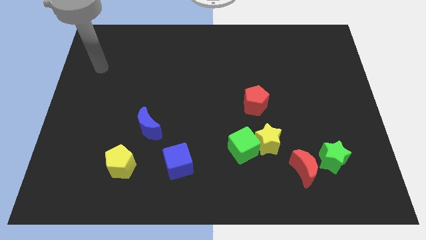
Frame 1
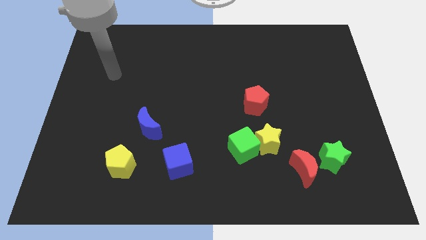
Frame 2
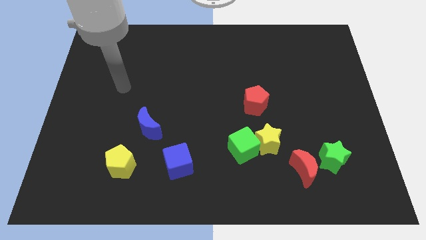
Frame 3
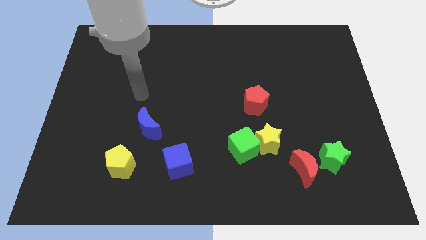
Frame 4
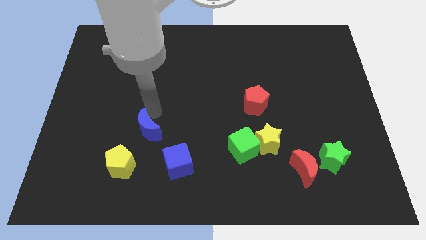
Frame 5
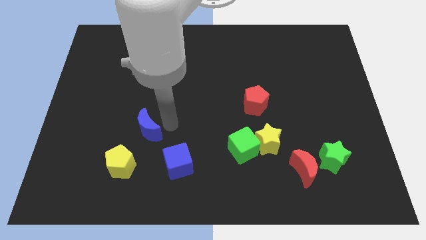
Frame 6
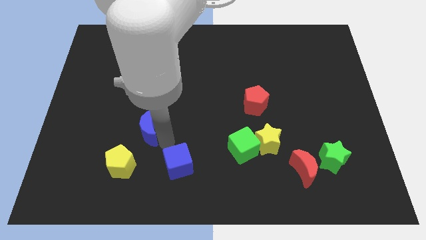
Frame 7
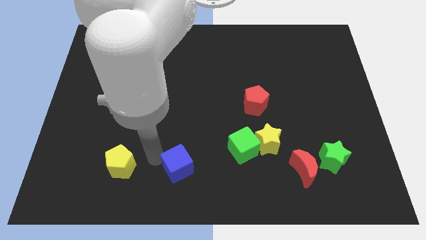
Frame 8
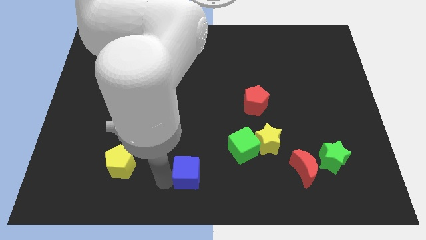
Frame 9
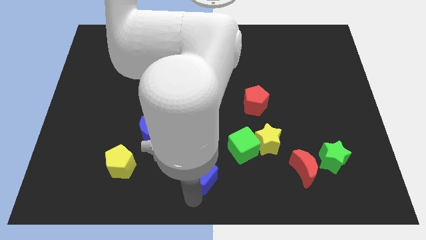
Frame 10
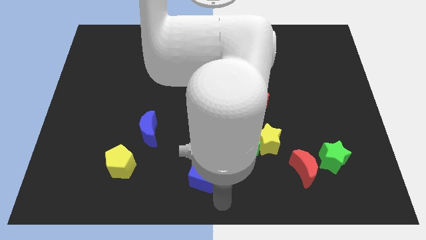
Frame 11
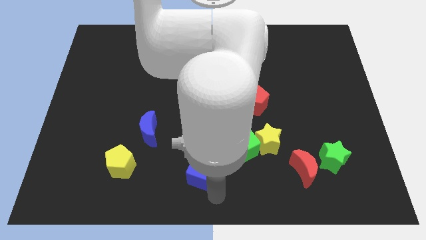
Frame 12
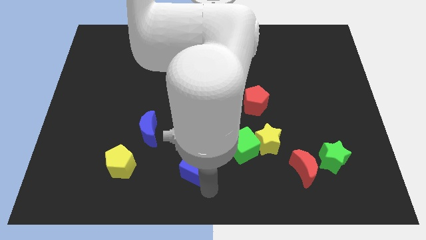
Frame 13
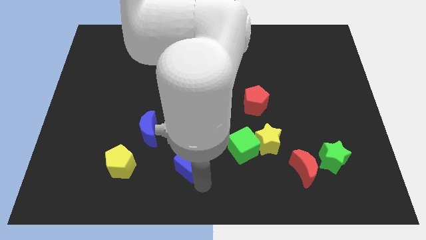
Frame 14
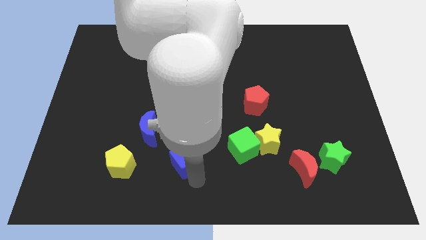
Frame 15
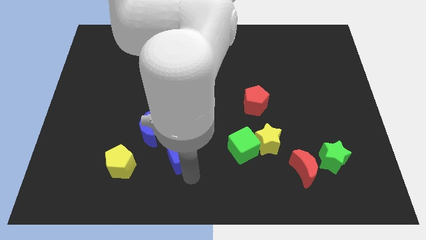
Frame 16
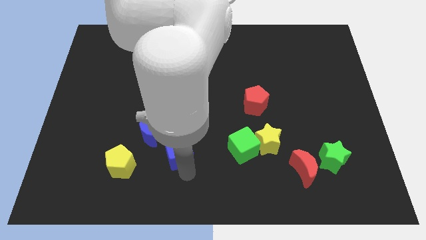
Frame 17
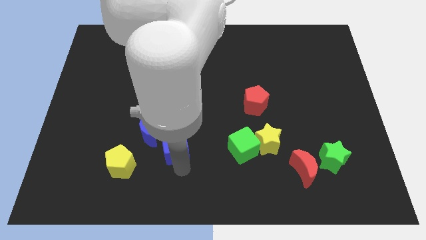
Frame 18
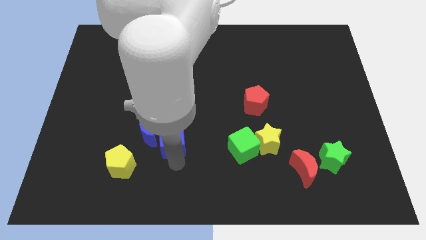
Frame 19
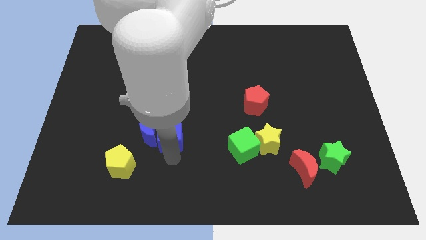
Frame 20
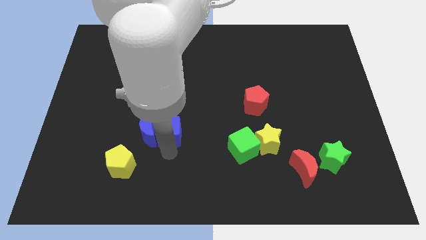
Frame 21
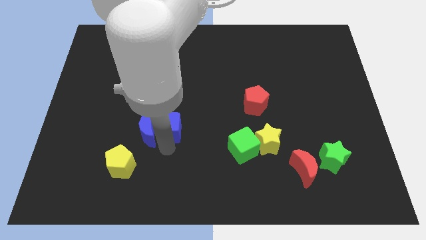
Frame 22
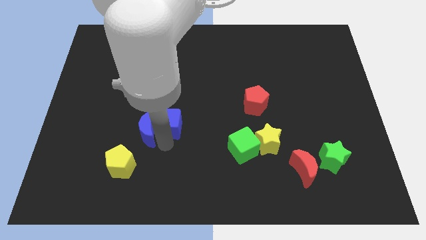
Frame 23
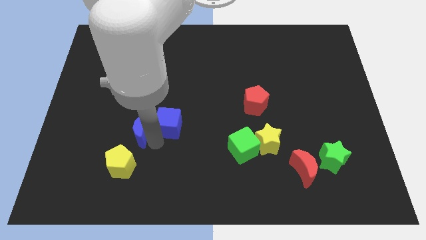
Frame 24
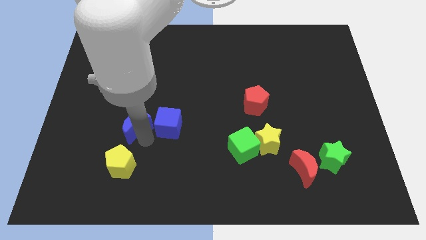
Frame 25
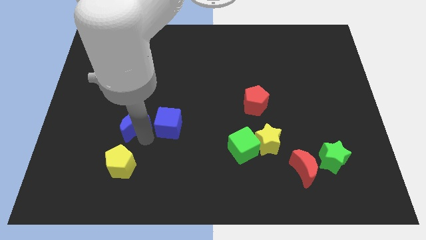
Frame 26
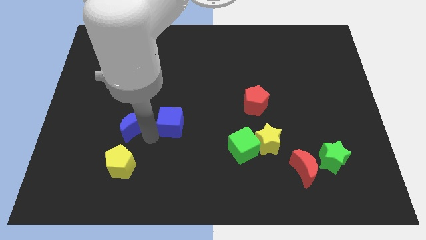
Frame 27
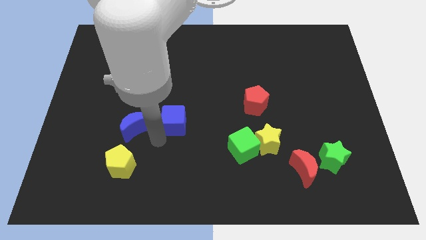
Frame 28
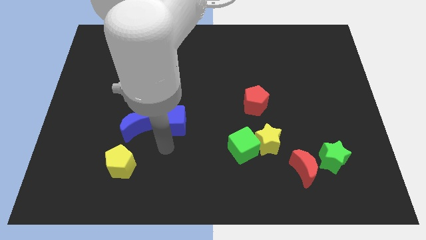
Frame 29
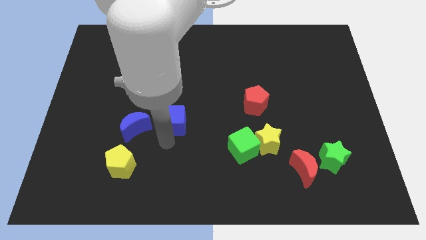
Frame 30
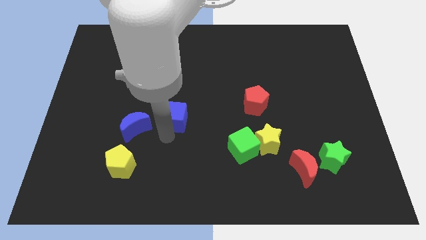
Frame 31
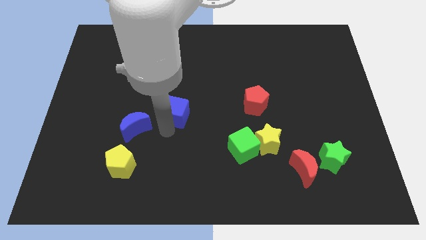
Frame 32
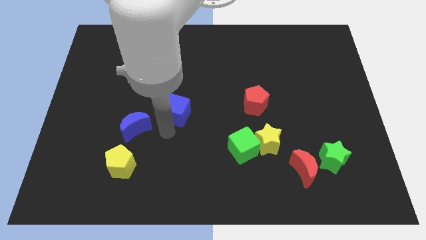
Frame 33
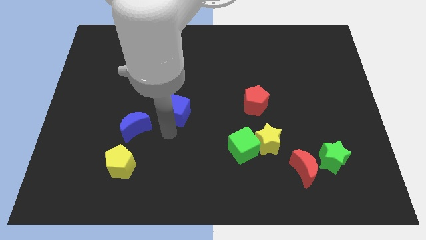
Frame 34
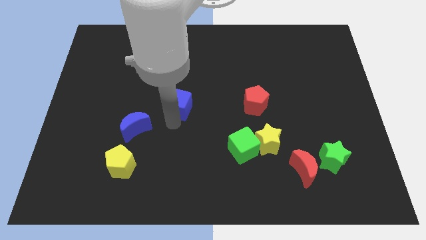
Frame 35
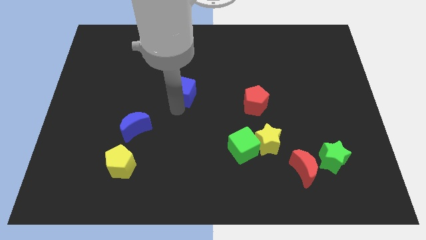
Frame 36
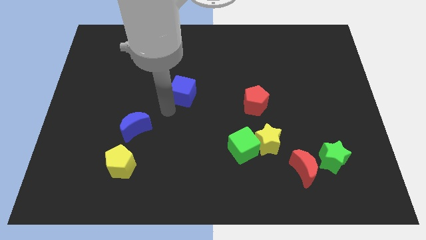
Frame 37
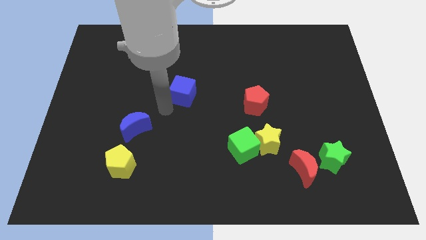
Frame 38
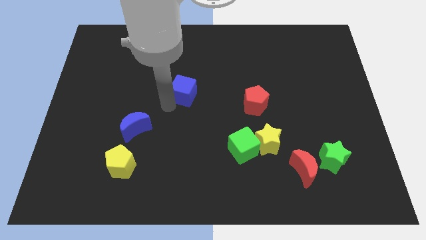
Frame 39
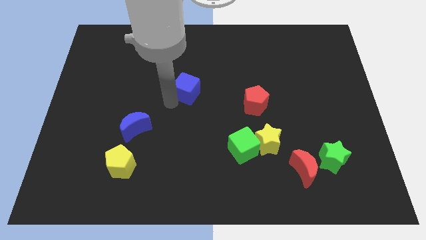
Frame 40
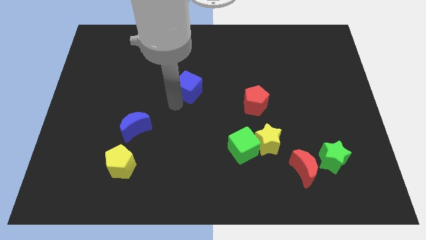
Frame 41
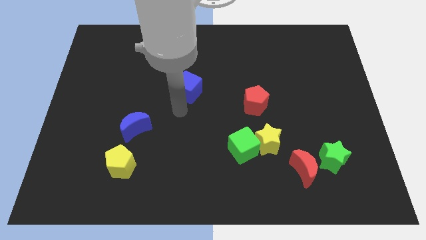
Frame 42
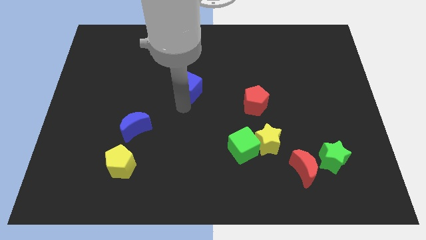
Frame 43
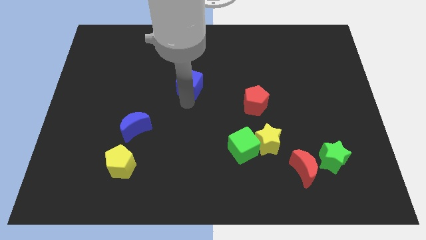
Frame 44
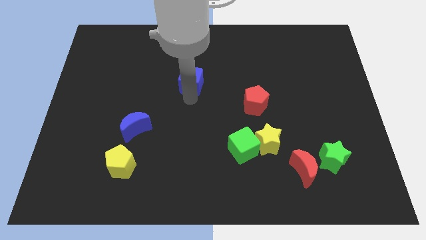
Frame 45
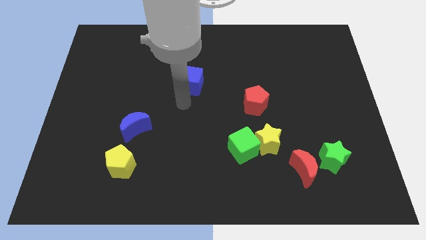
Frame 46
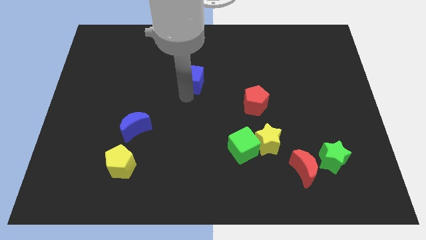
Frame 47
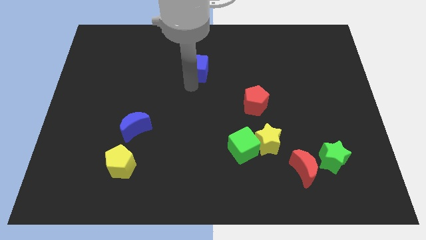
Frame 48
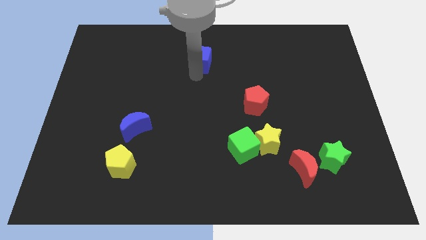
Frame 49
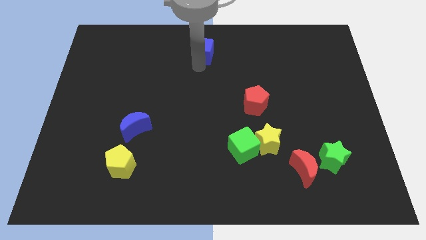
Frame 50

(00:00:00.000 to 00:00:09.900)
push the blue cube to the top

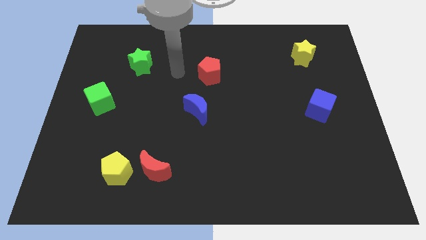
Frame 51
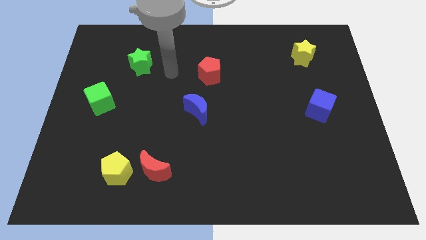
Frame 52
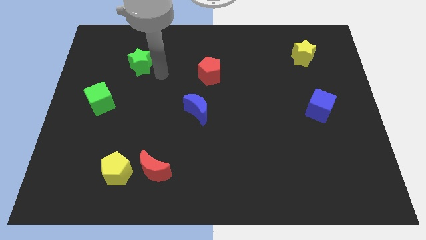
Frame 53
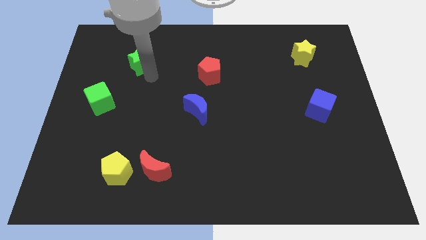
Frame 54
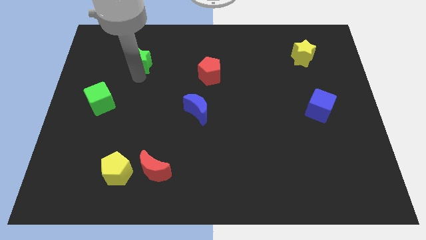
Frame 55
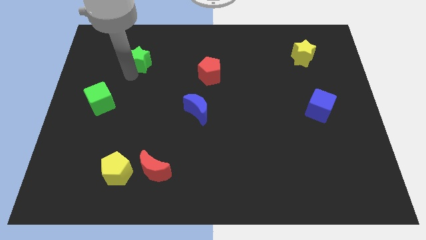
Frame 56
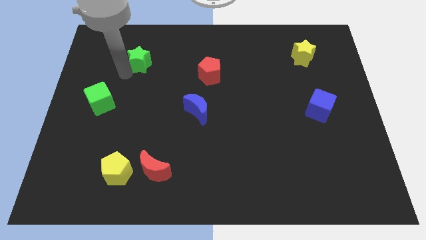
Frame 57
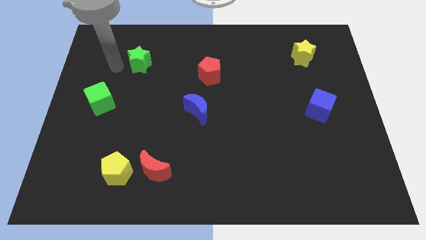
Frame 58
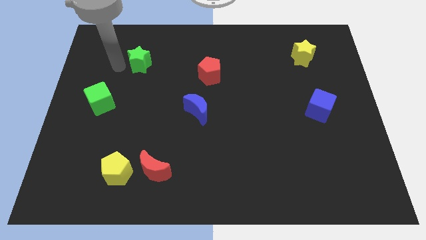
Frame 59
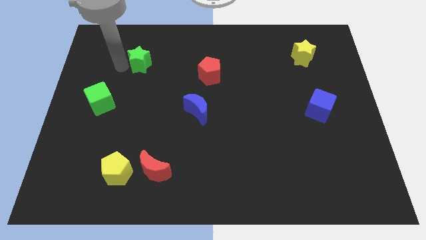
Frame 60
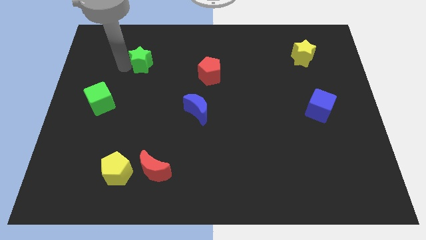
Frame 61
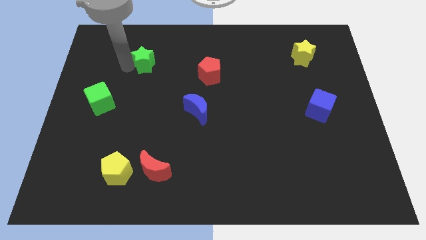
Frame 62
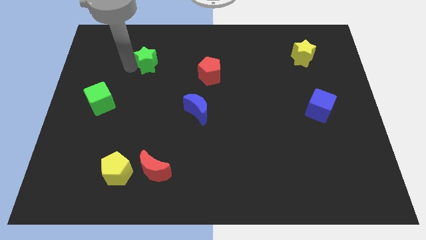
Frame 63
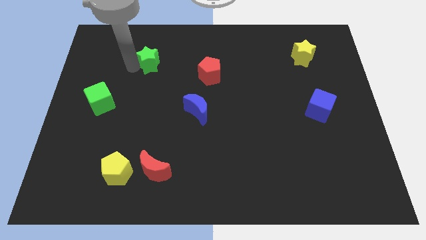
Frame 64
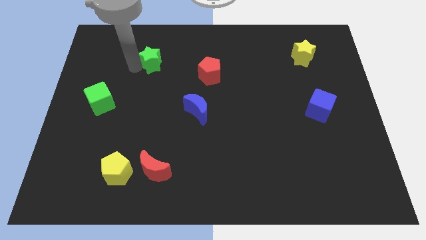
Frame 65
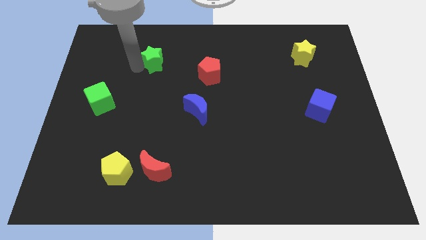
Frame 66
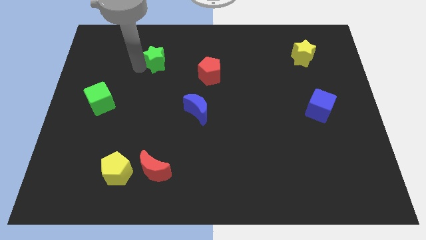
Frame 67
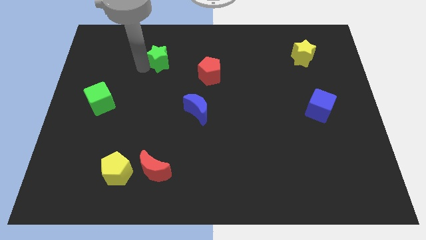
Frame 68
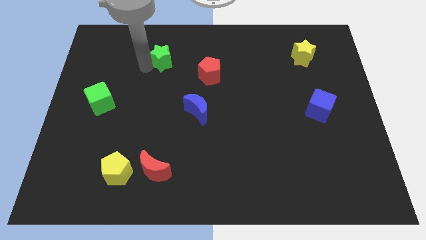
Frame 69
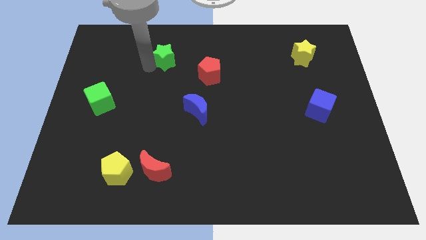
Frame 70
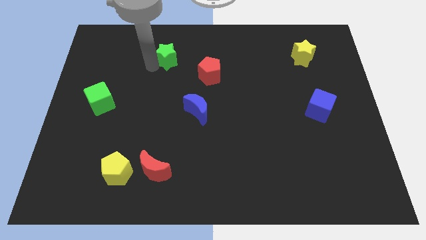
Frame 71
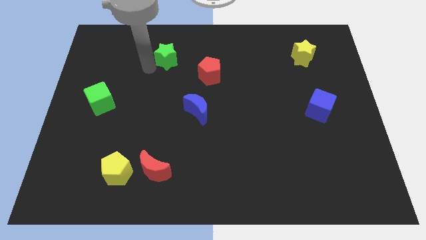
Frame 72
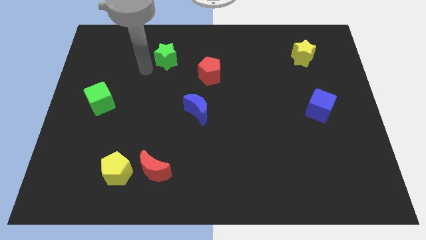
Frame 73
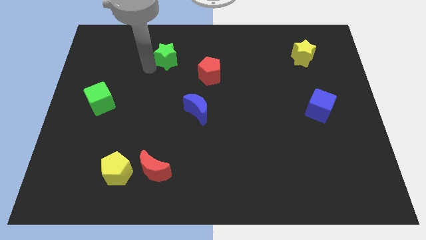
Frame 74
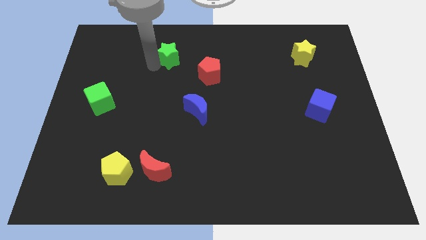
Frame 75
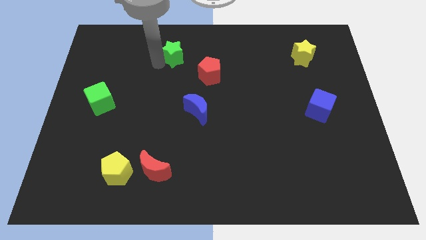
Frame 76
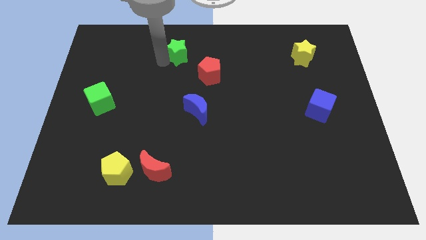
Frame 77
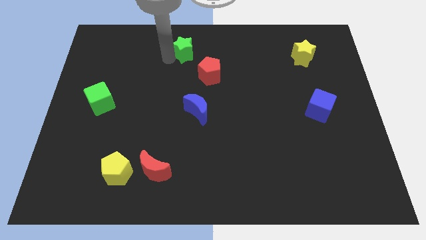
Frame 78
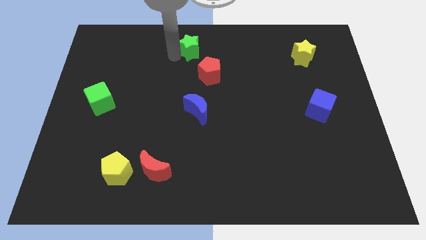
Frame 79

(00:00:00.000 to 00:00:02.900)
push the green star to the top
